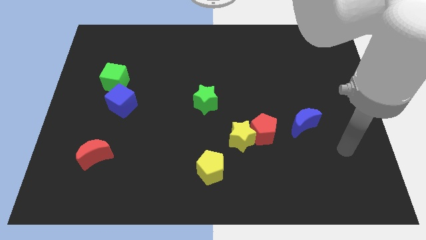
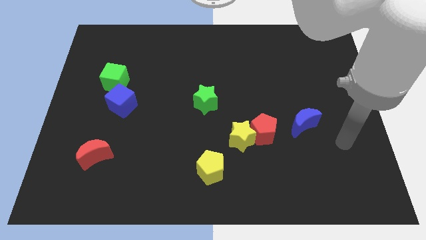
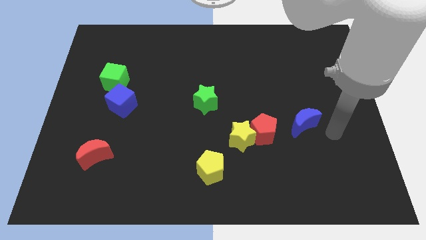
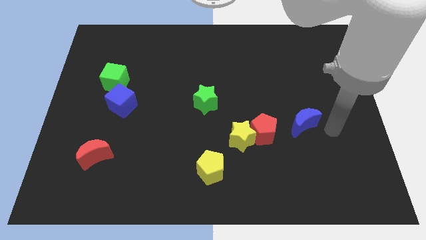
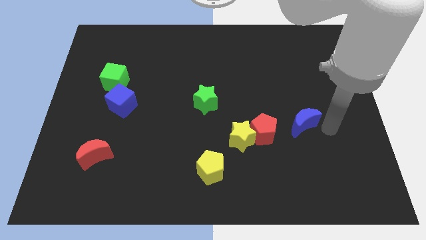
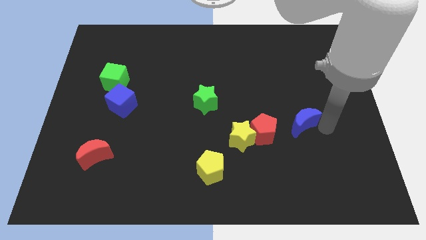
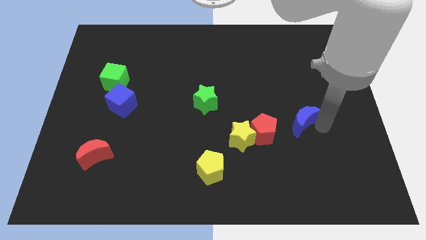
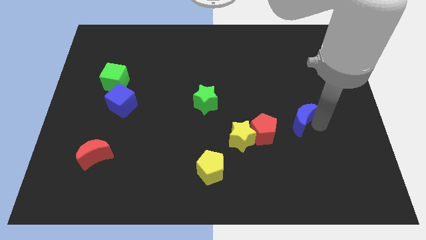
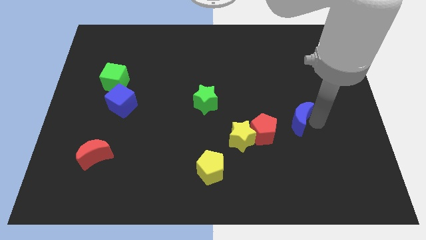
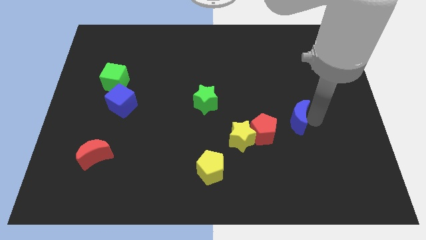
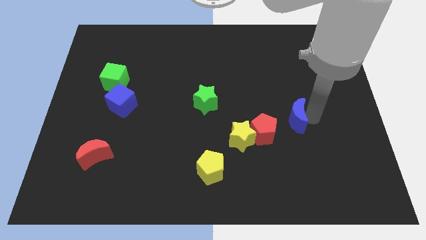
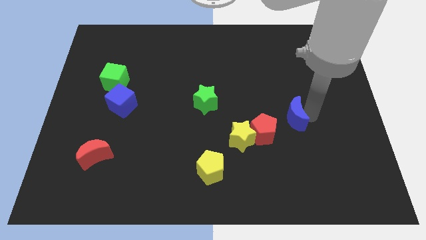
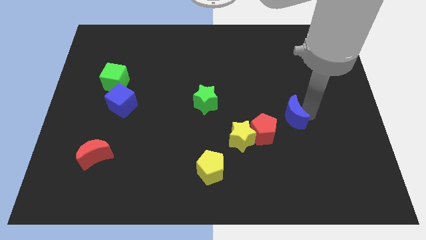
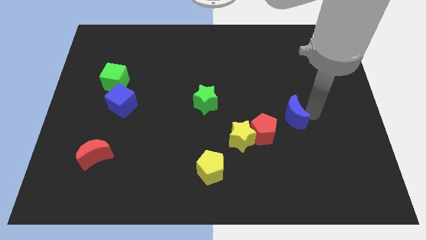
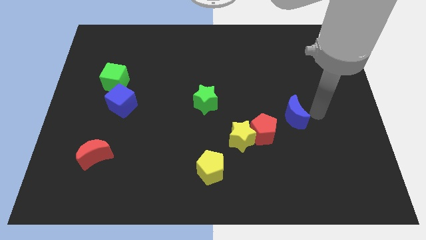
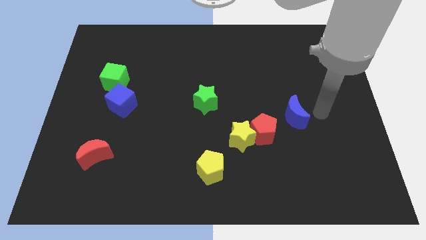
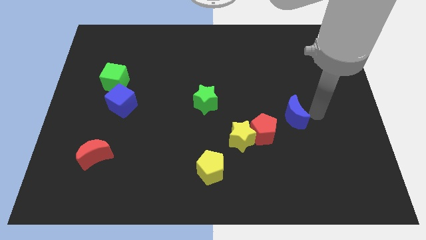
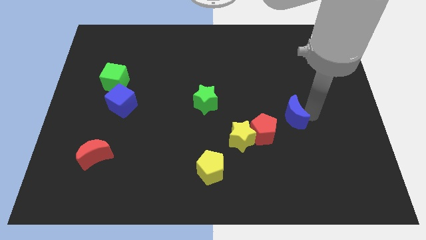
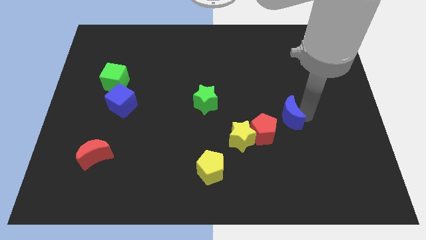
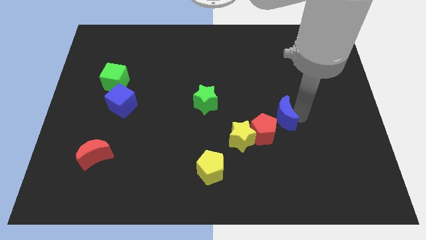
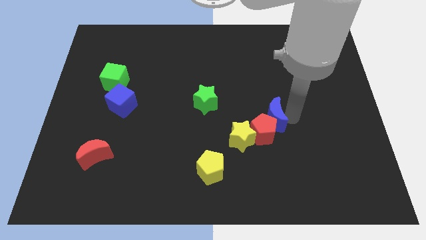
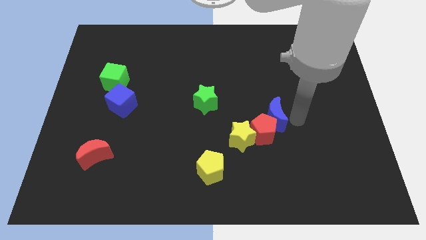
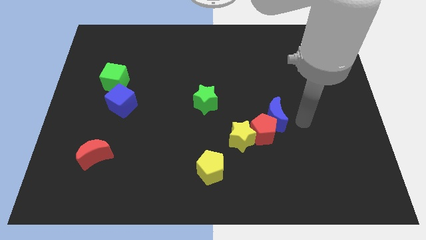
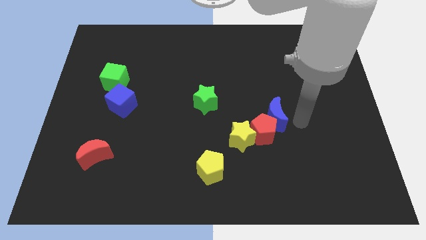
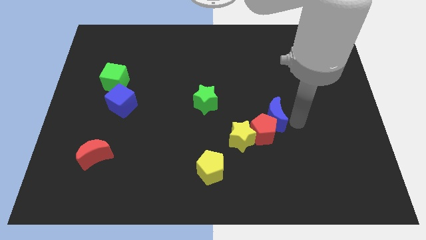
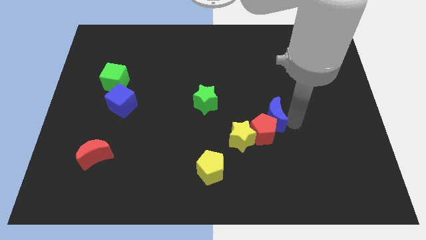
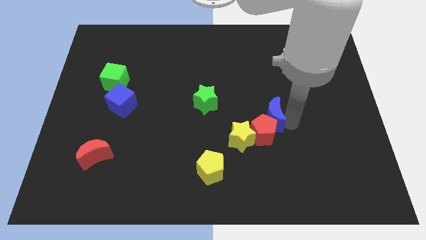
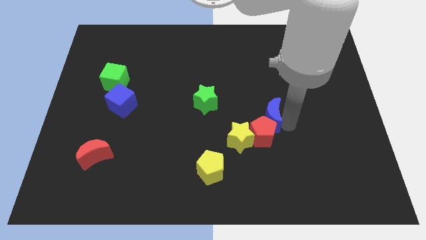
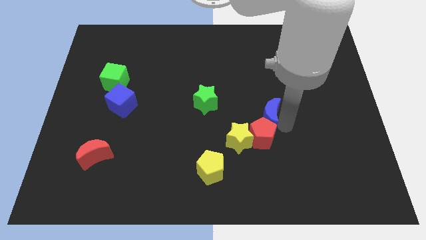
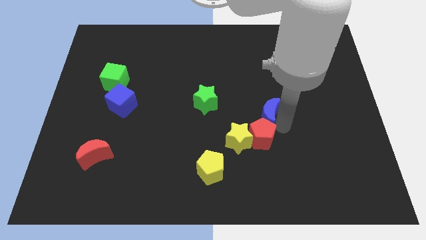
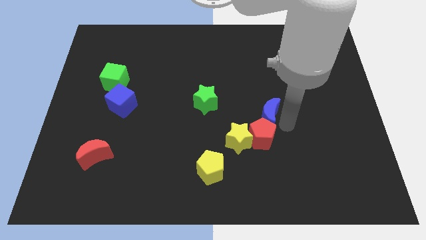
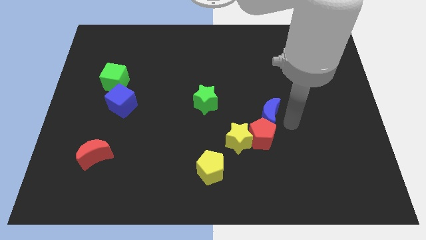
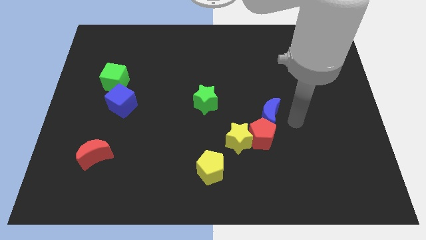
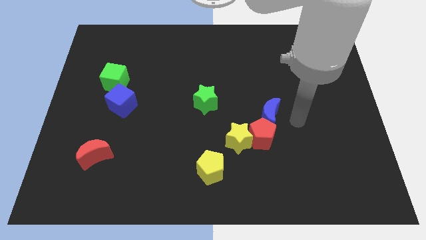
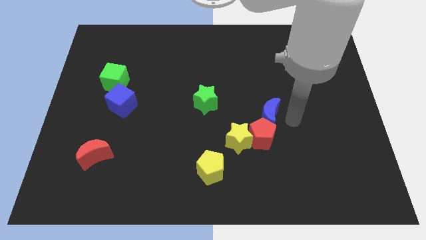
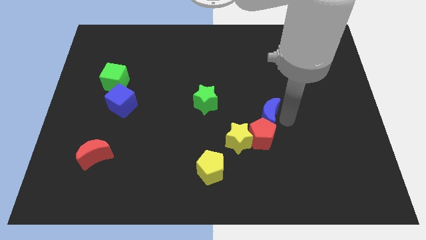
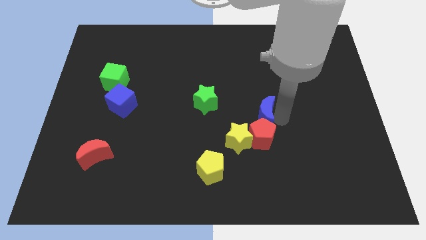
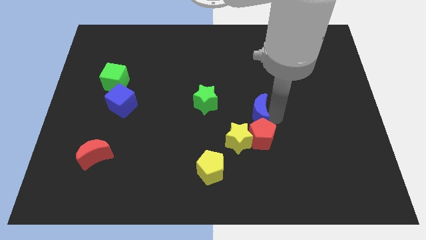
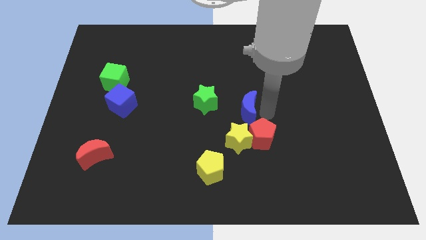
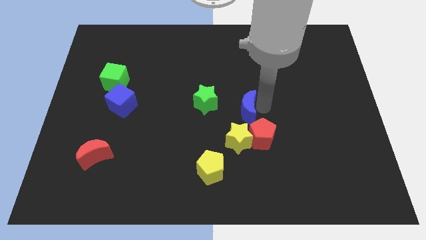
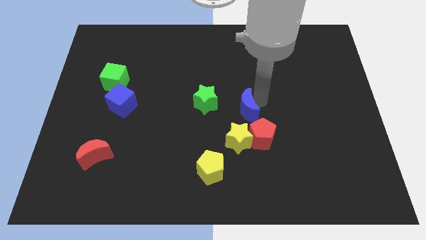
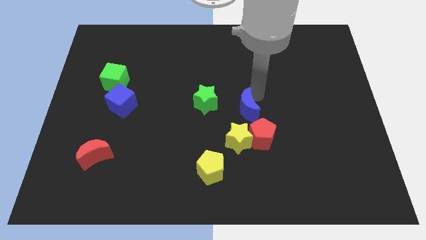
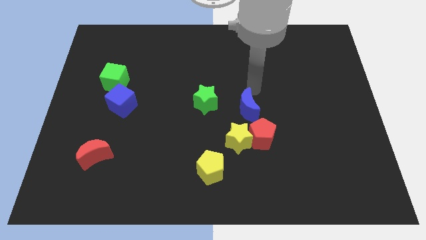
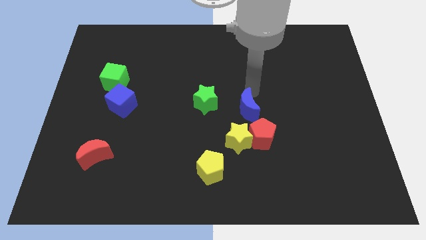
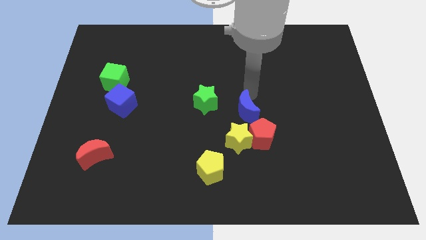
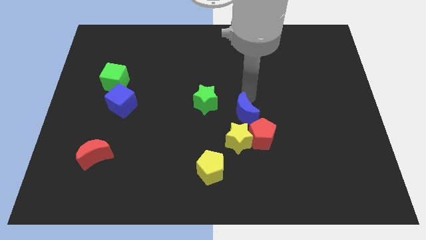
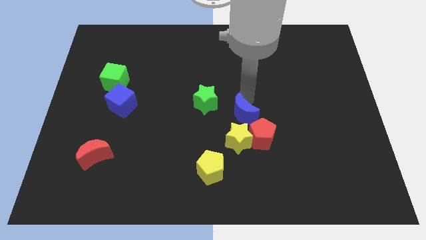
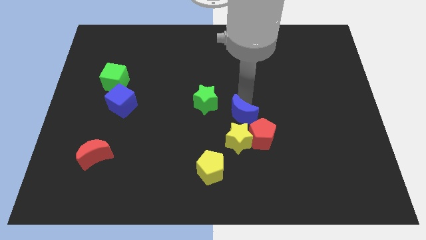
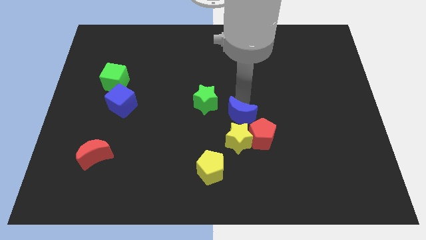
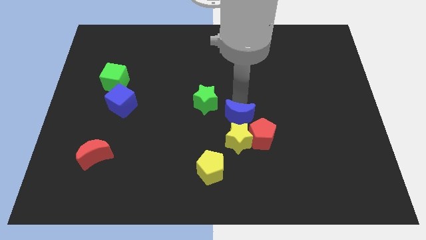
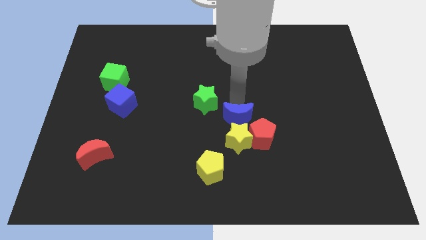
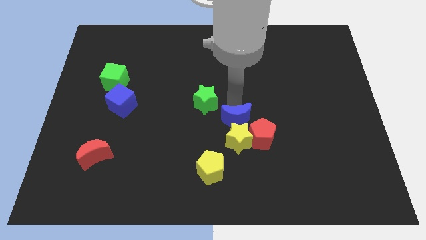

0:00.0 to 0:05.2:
move the blue moon next to the yellow star

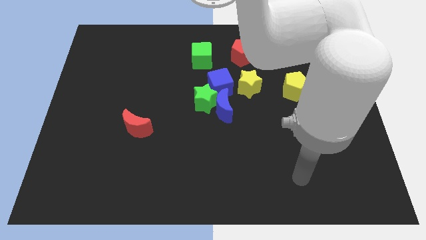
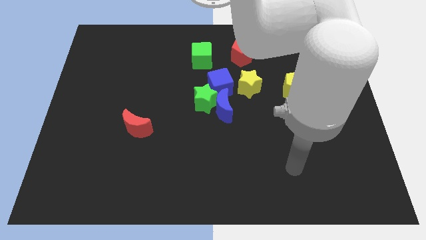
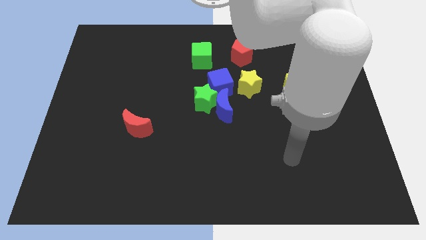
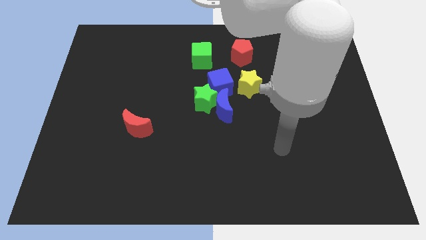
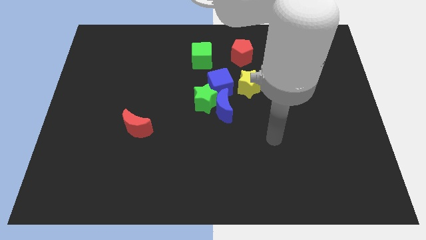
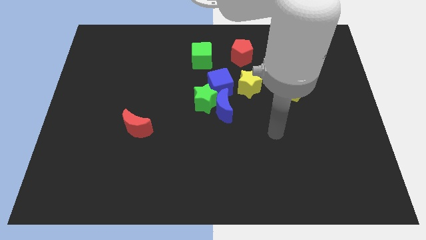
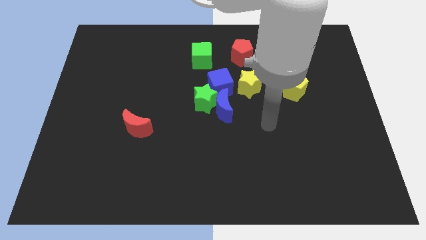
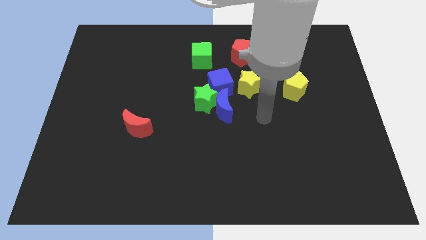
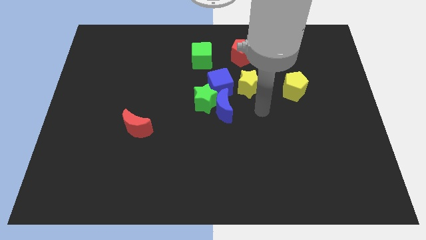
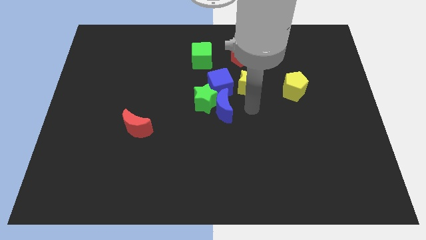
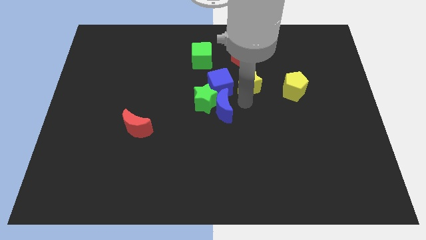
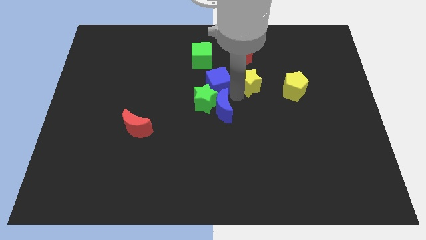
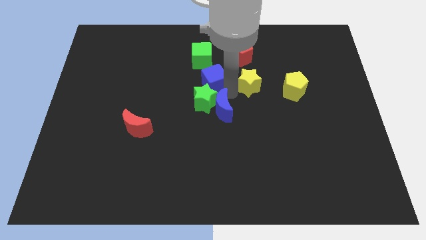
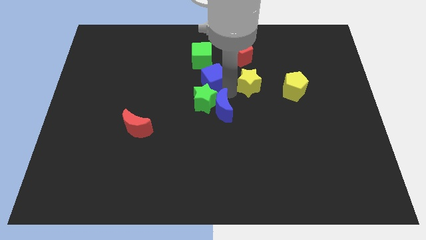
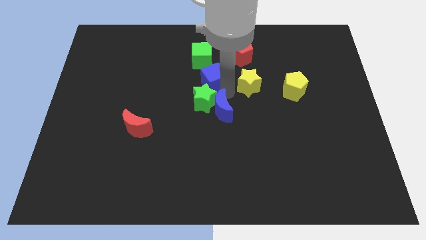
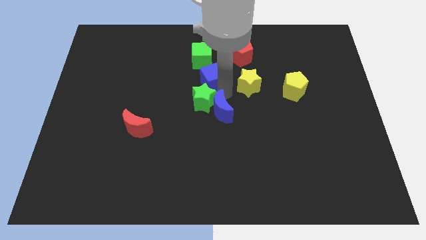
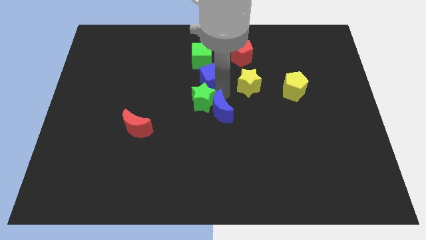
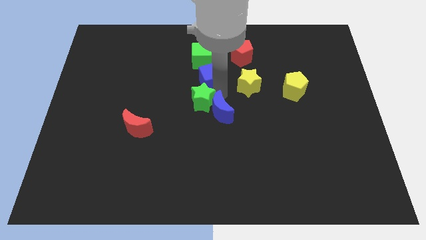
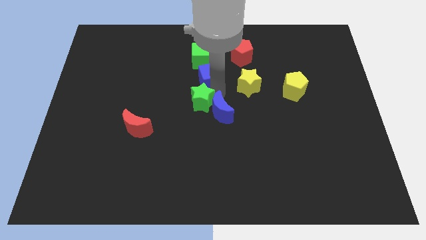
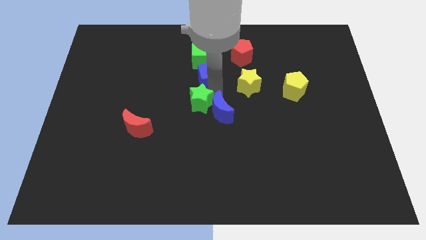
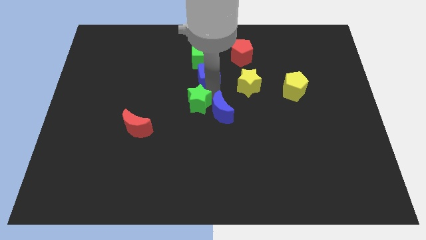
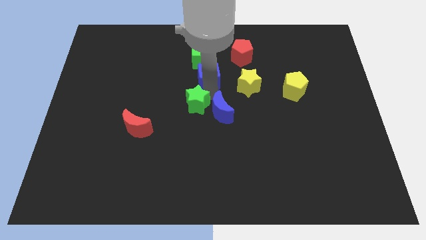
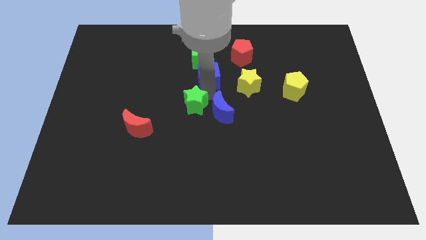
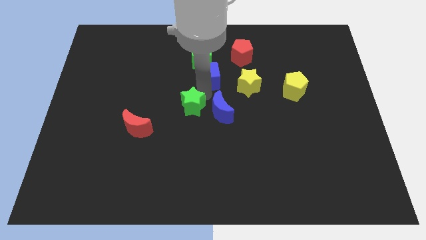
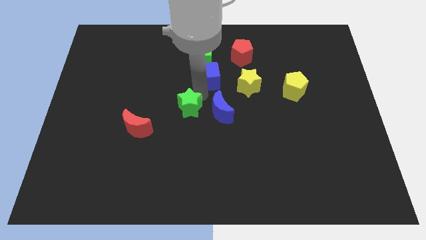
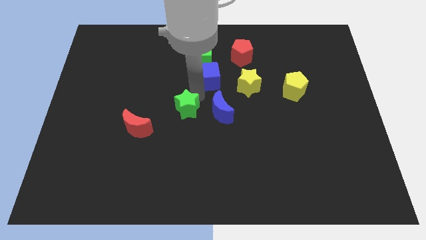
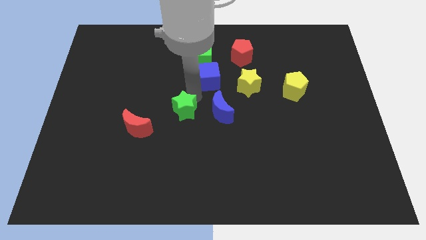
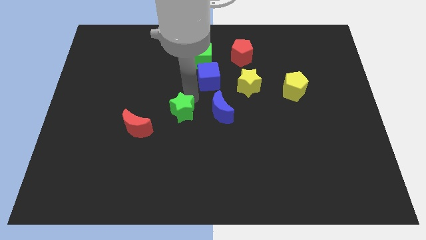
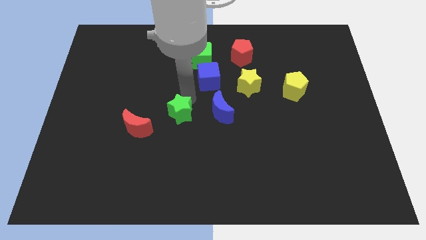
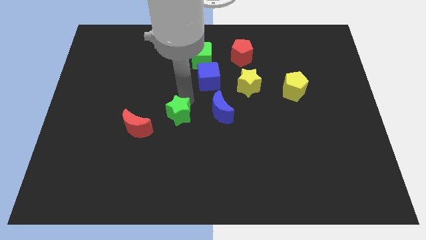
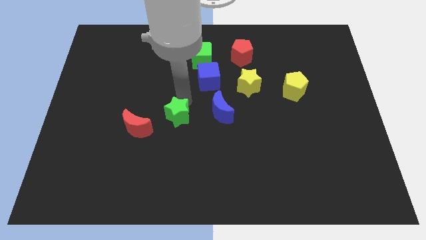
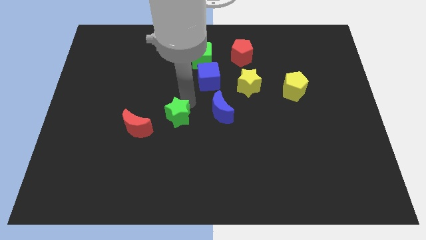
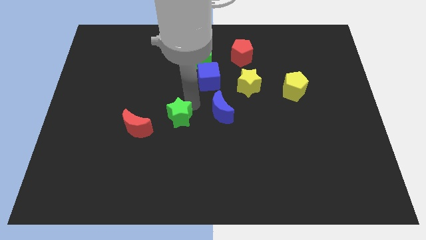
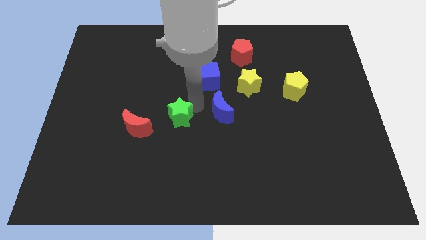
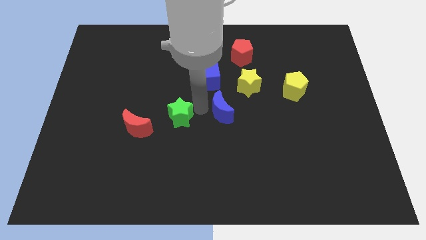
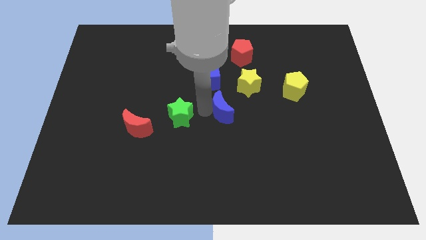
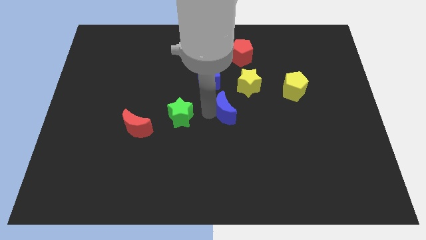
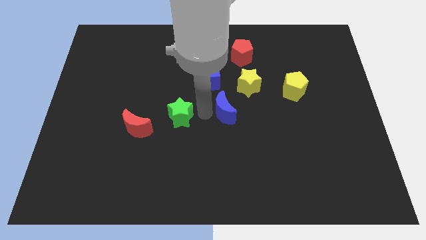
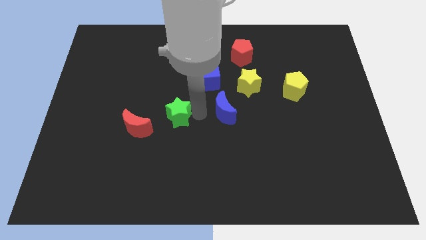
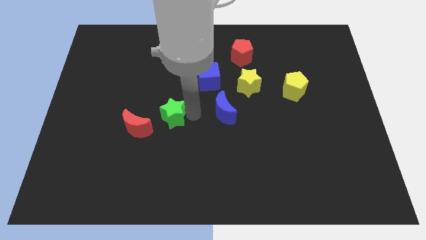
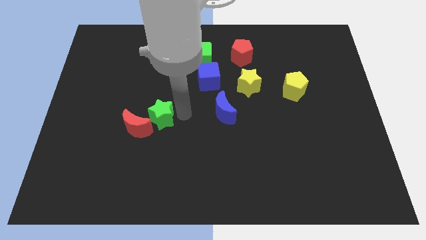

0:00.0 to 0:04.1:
move the green star next to the red moon
